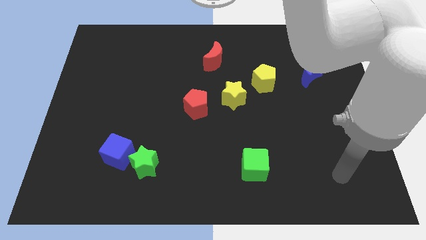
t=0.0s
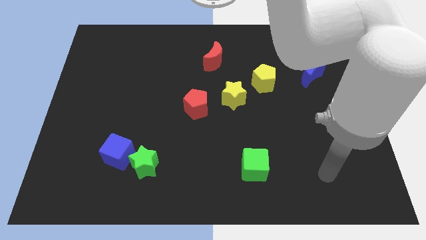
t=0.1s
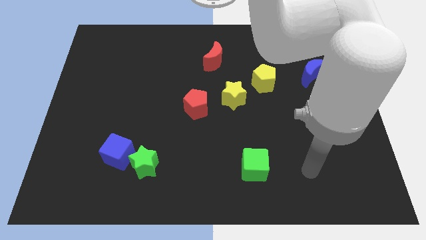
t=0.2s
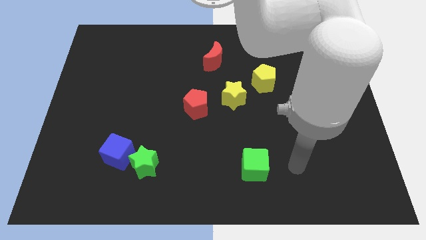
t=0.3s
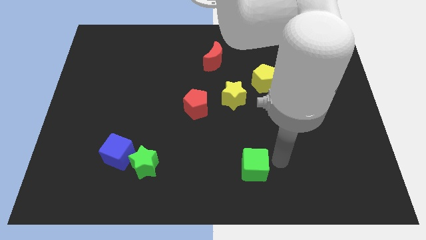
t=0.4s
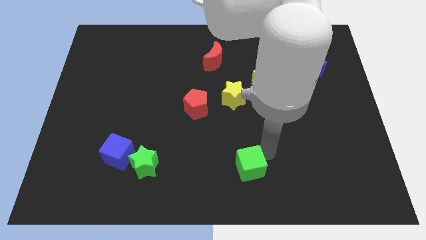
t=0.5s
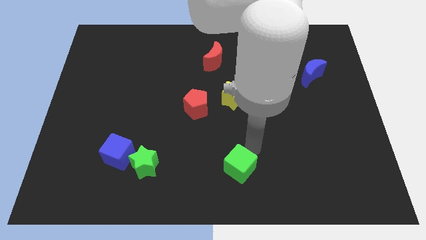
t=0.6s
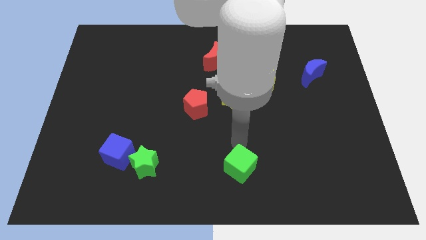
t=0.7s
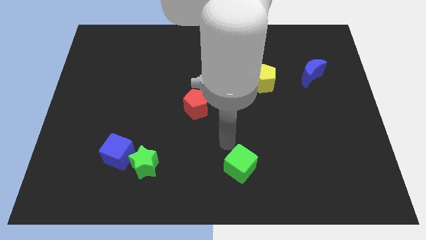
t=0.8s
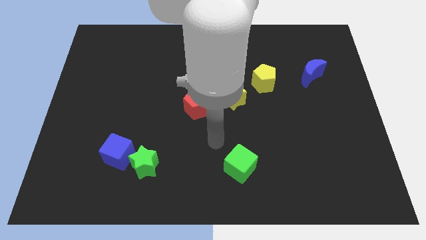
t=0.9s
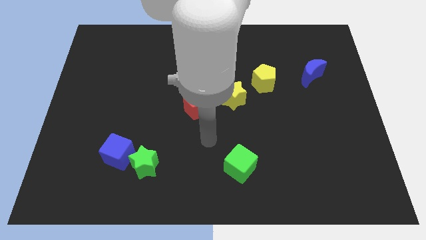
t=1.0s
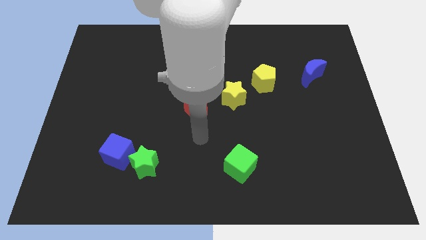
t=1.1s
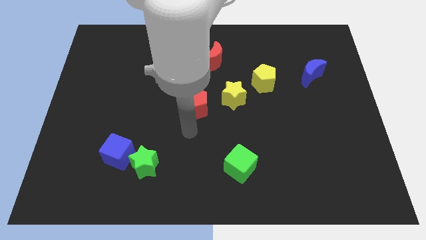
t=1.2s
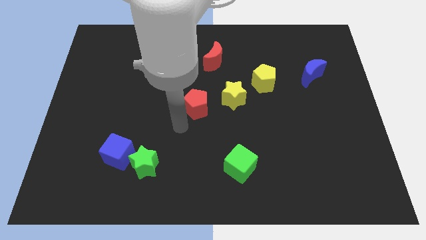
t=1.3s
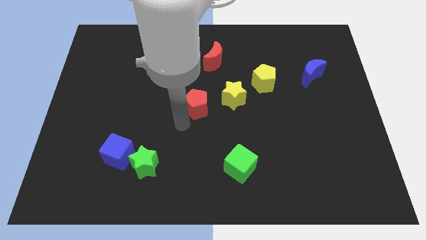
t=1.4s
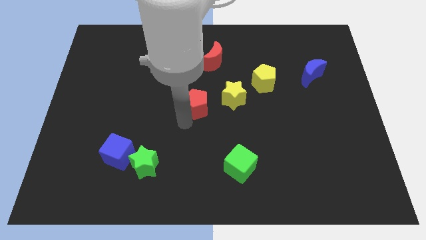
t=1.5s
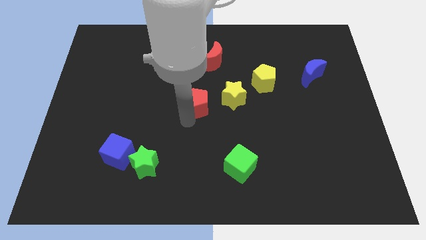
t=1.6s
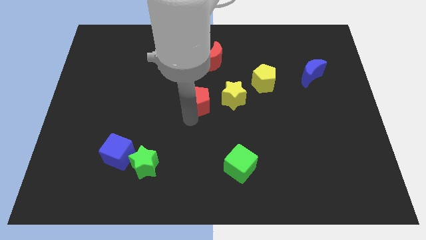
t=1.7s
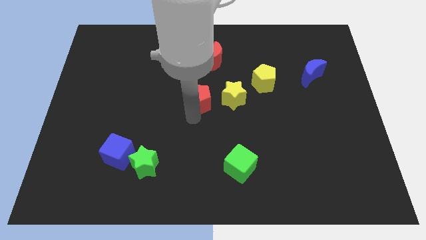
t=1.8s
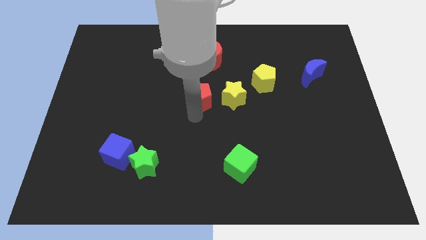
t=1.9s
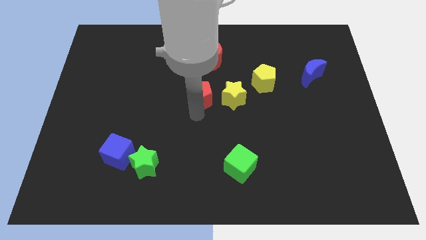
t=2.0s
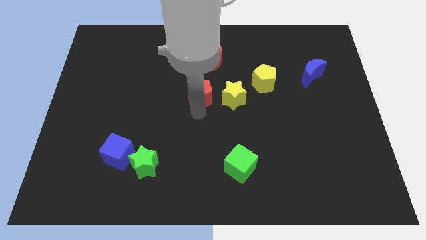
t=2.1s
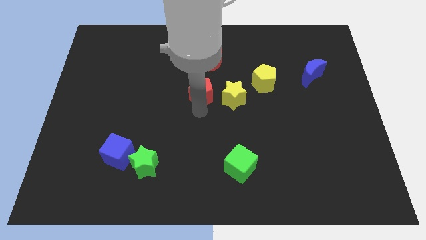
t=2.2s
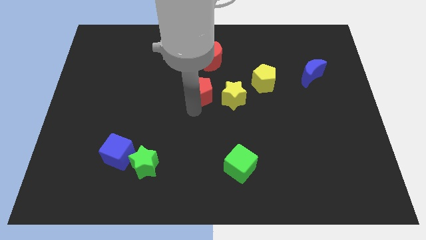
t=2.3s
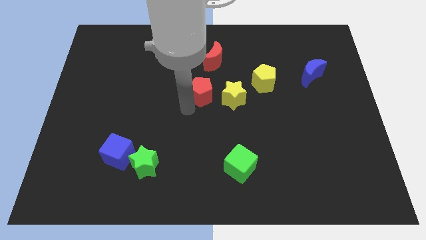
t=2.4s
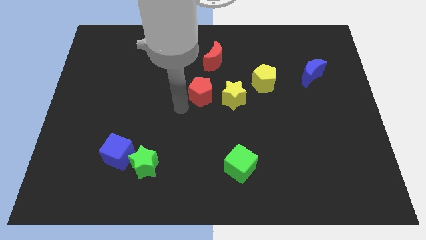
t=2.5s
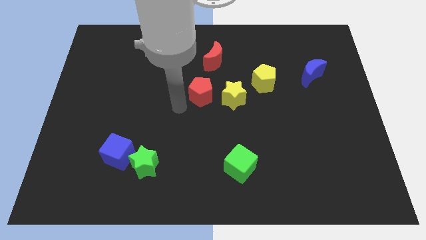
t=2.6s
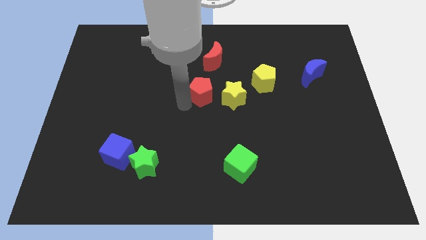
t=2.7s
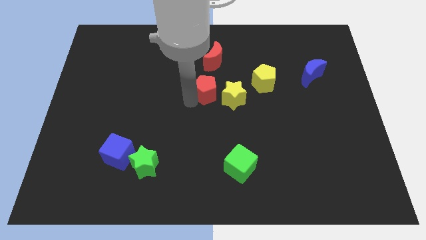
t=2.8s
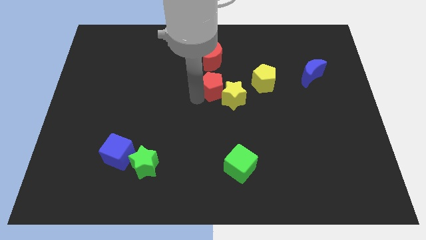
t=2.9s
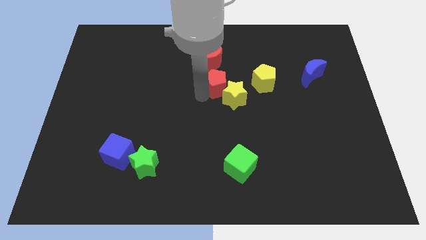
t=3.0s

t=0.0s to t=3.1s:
slightly move the red pentagon up and to the right

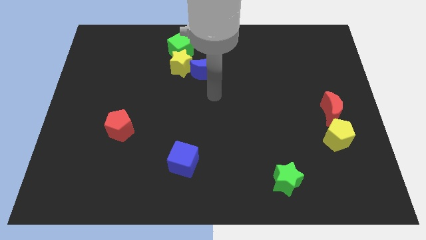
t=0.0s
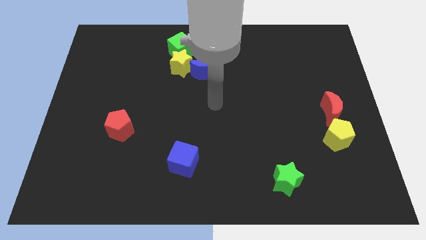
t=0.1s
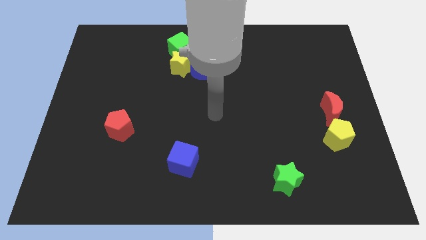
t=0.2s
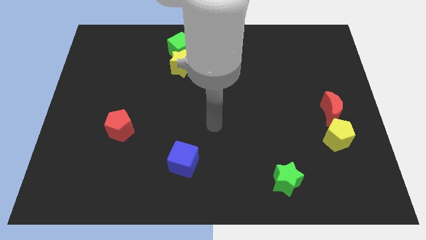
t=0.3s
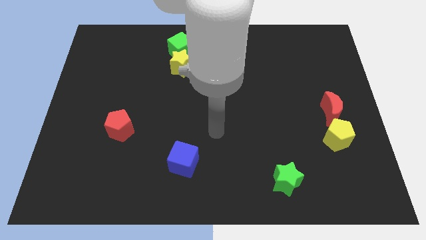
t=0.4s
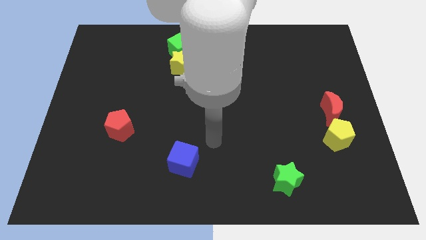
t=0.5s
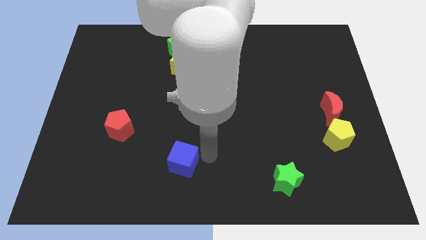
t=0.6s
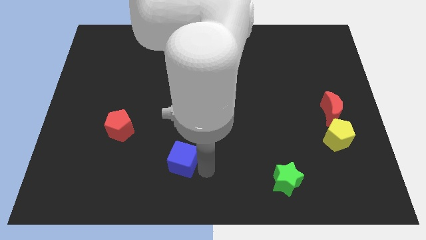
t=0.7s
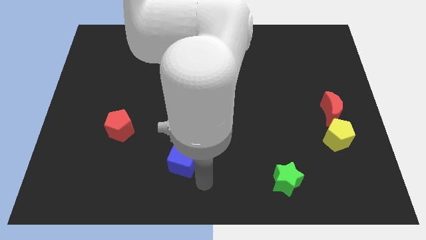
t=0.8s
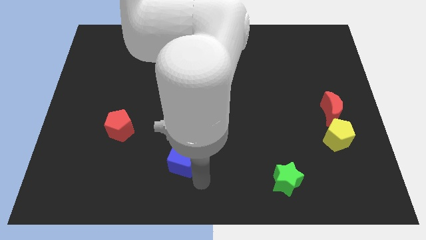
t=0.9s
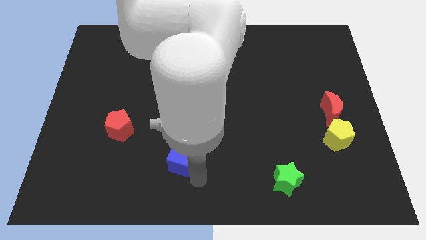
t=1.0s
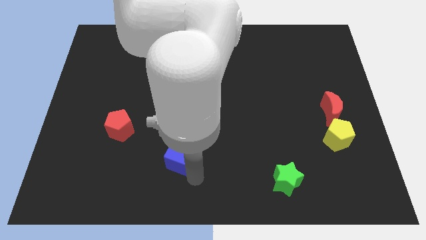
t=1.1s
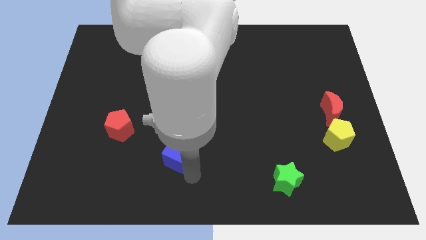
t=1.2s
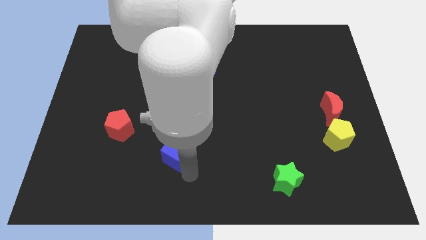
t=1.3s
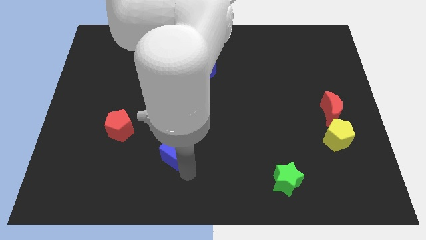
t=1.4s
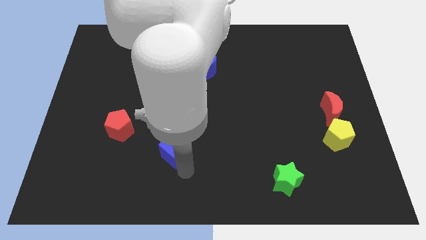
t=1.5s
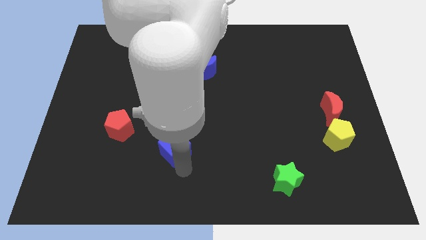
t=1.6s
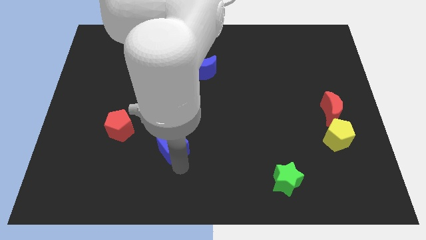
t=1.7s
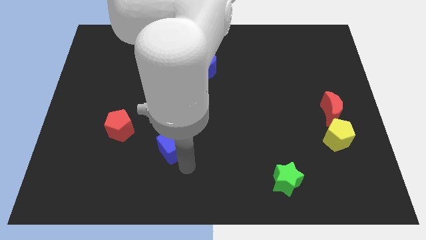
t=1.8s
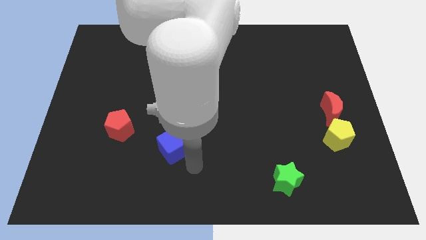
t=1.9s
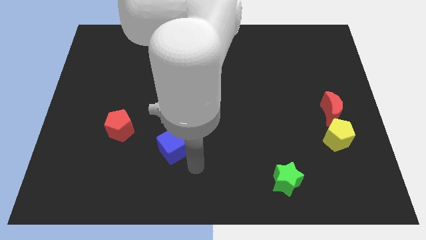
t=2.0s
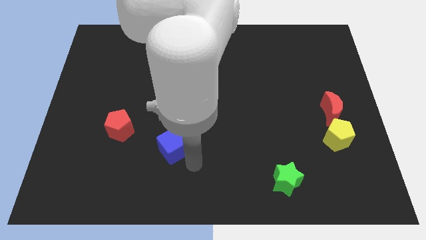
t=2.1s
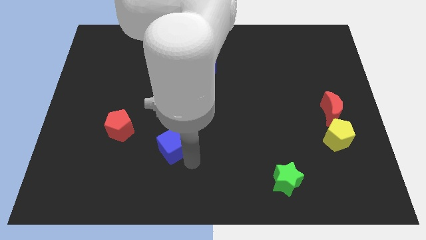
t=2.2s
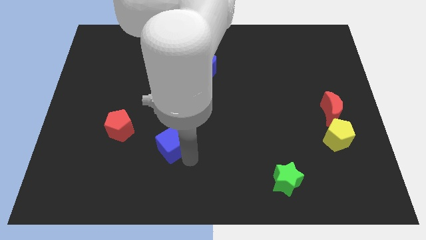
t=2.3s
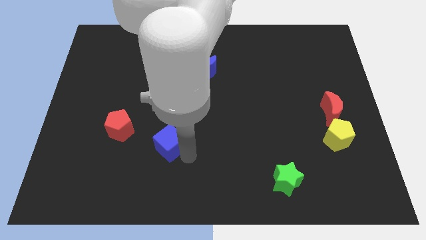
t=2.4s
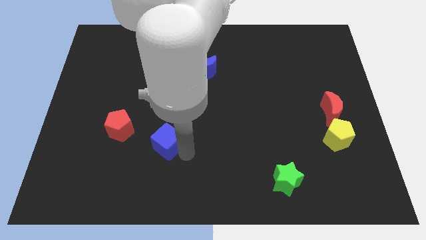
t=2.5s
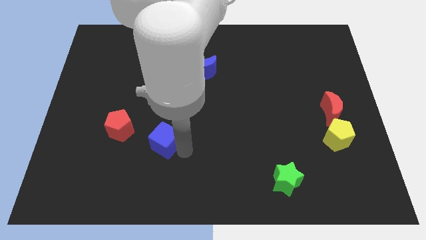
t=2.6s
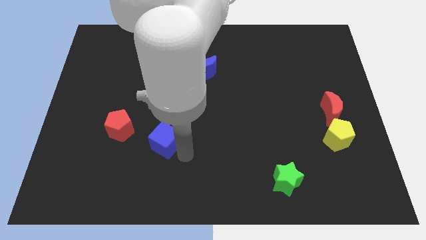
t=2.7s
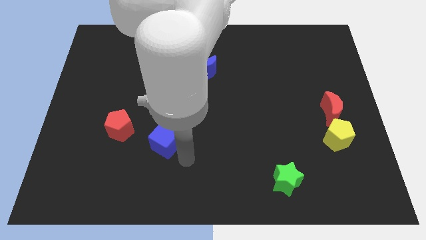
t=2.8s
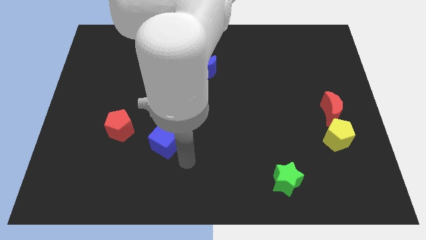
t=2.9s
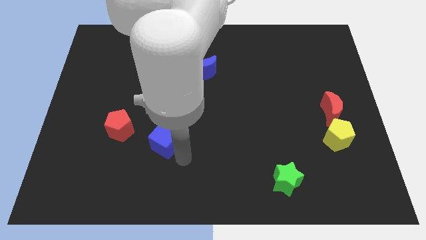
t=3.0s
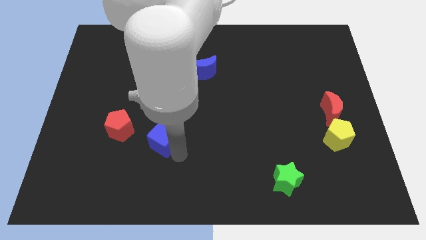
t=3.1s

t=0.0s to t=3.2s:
slide the blue cube a little bit up and then left

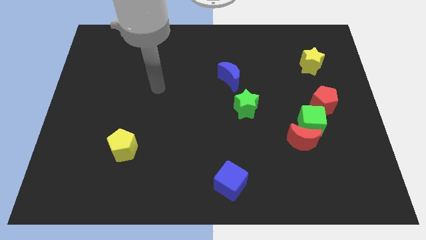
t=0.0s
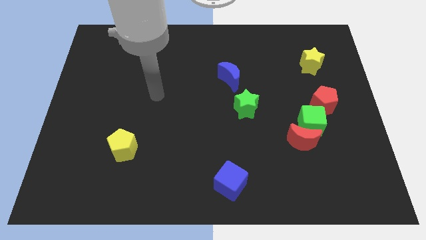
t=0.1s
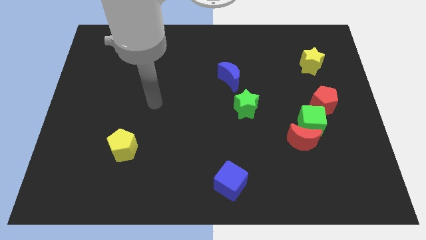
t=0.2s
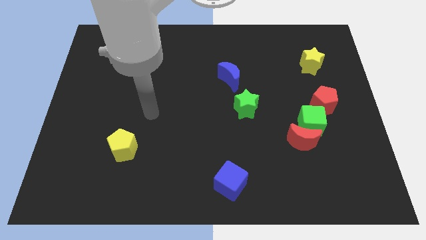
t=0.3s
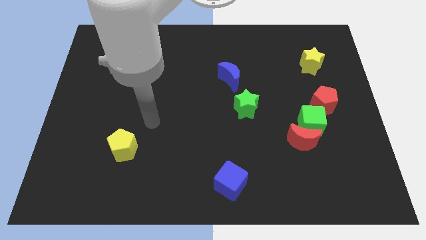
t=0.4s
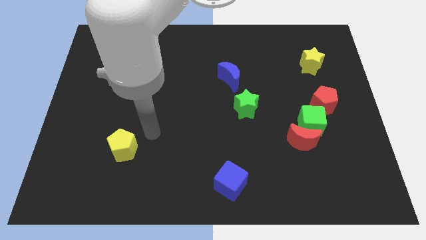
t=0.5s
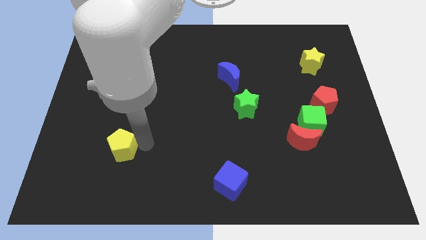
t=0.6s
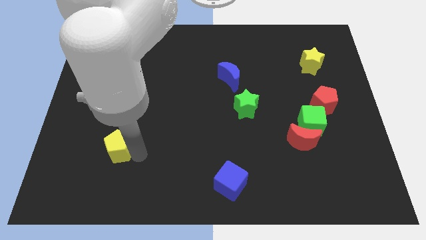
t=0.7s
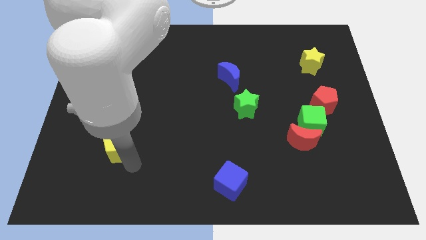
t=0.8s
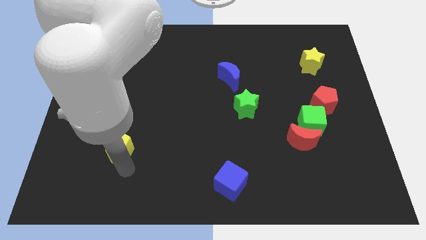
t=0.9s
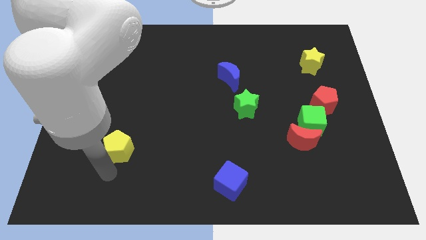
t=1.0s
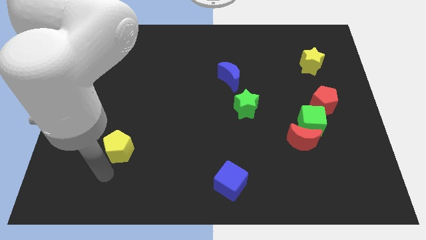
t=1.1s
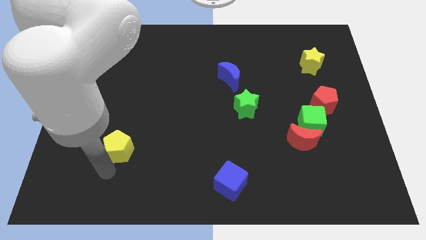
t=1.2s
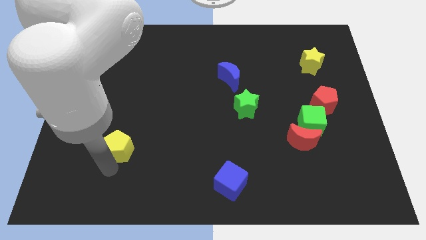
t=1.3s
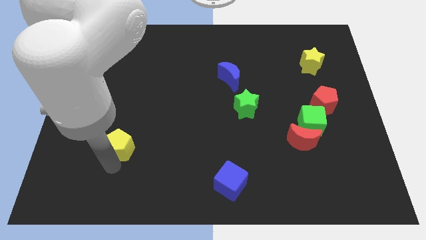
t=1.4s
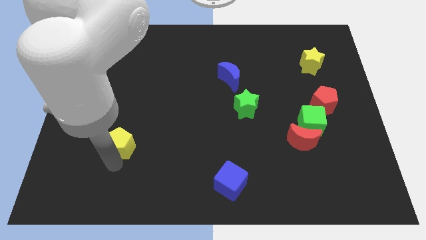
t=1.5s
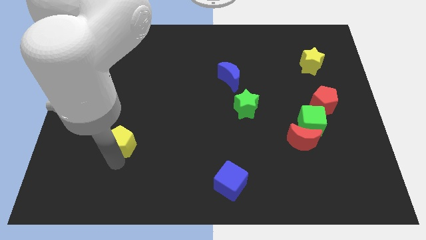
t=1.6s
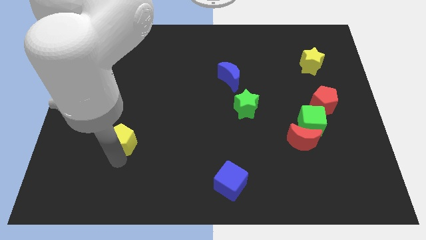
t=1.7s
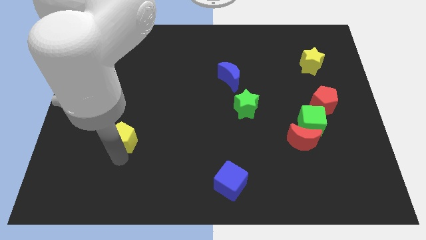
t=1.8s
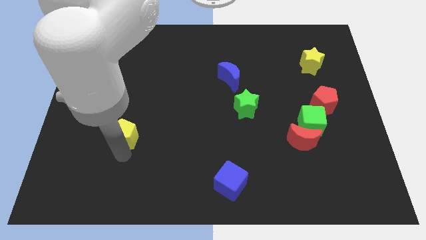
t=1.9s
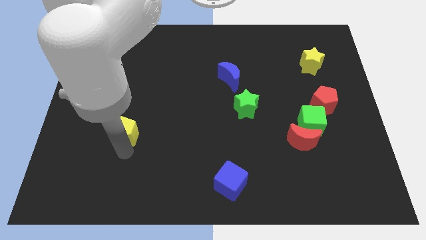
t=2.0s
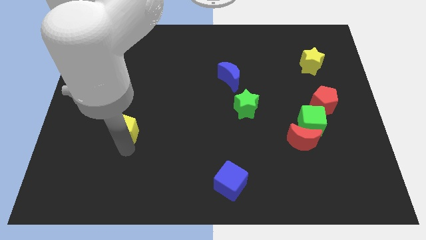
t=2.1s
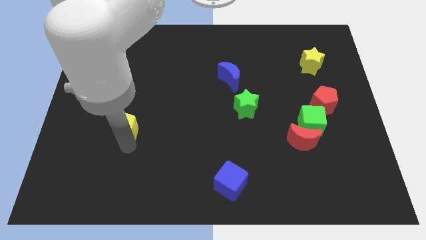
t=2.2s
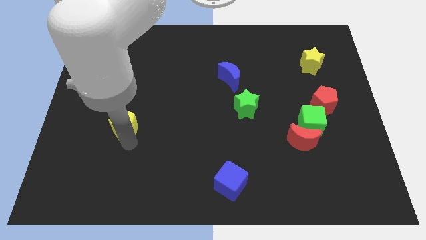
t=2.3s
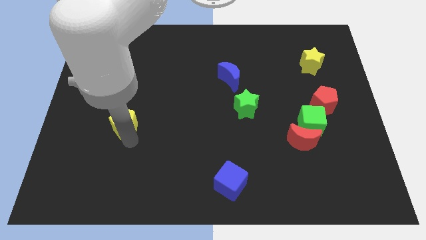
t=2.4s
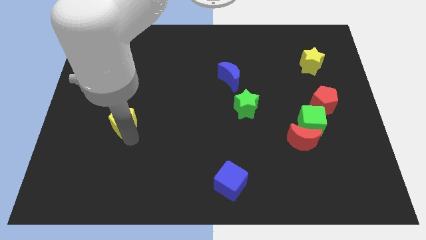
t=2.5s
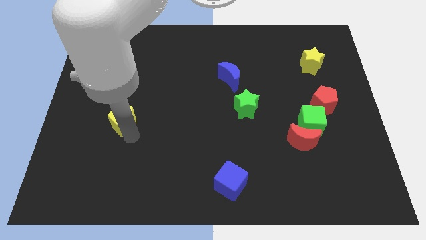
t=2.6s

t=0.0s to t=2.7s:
slide the yellow pentagon a little upwards
